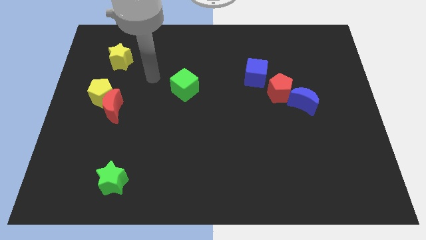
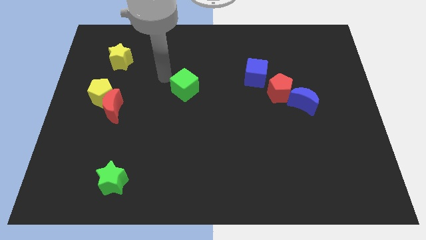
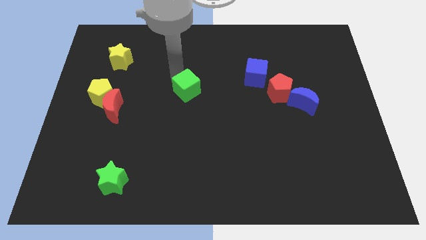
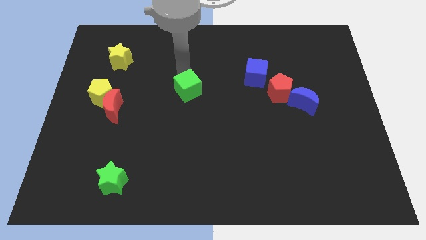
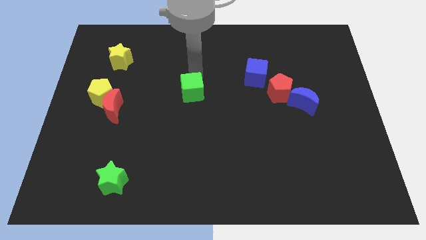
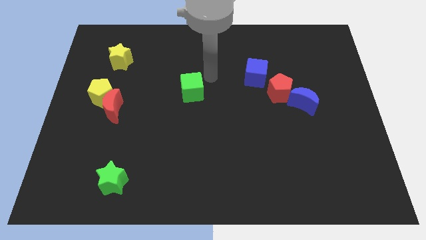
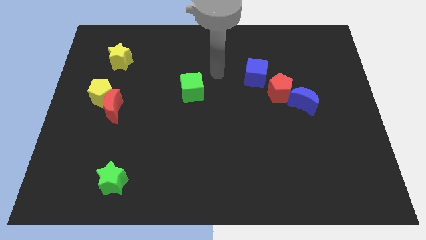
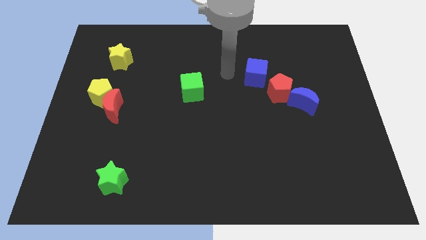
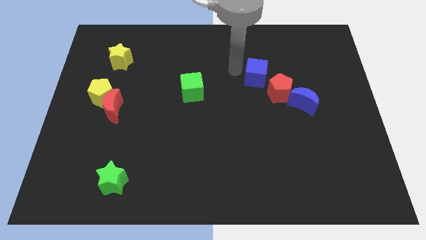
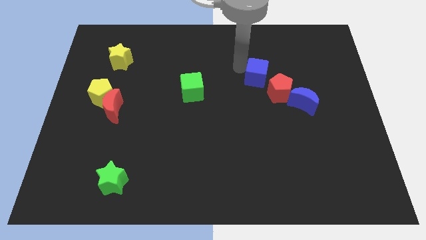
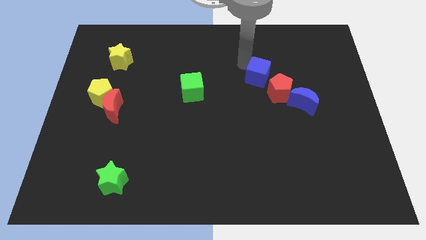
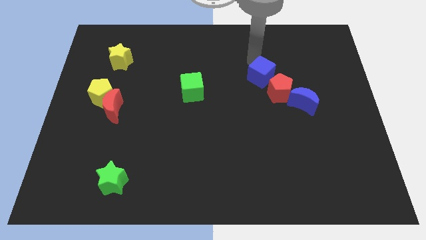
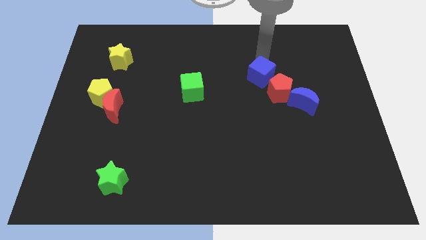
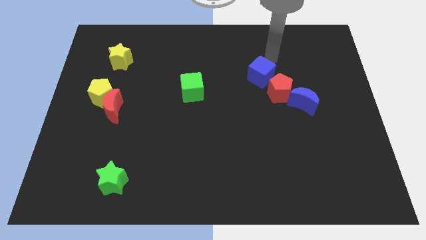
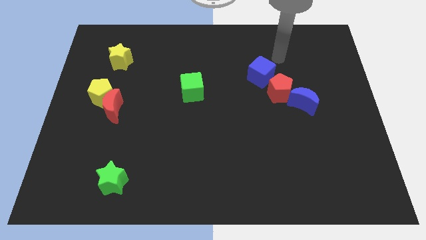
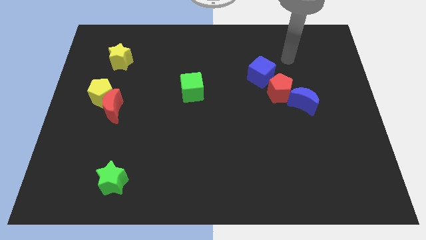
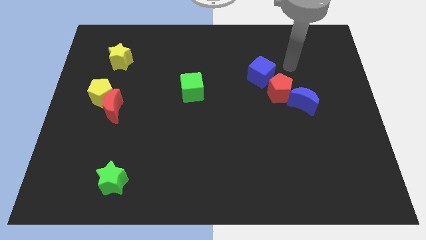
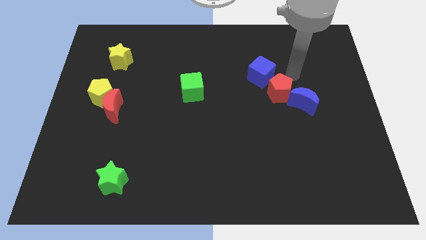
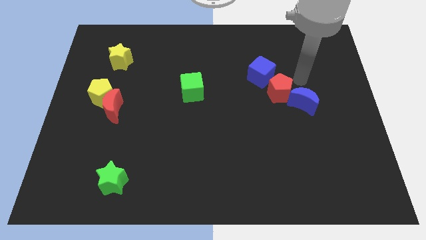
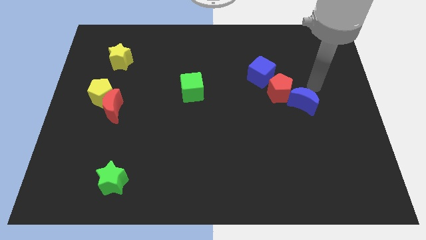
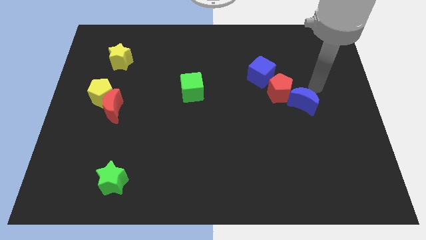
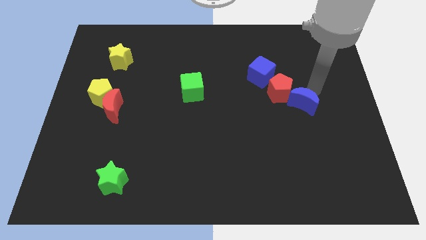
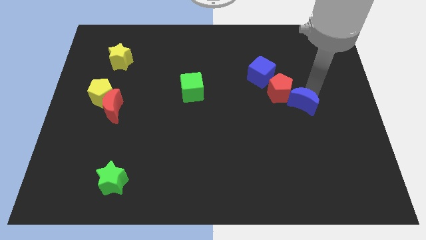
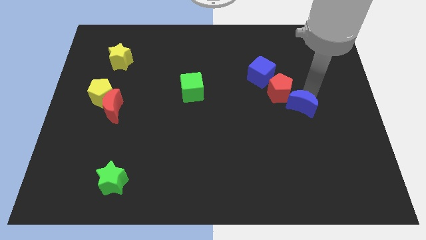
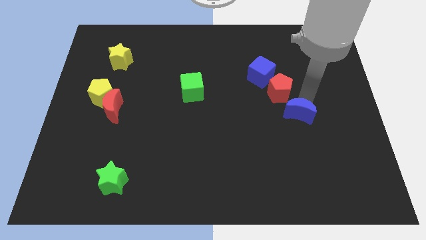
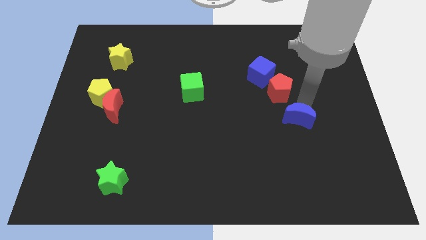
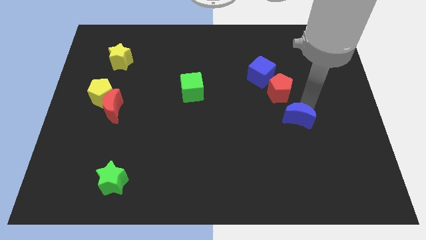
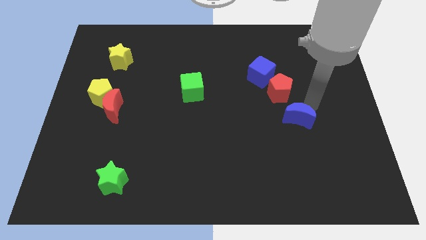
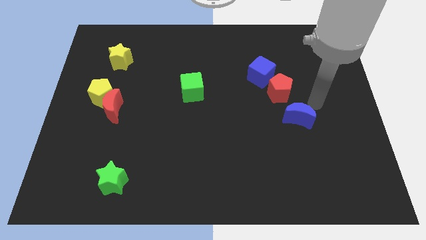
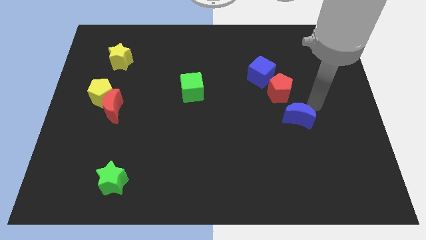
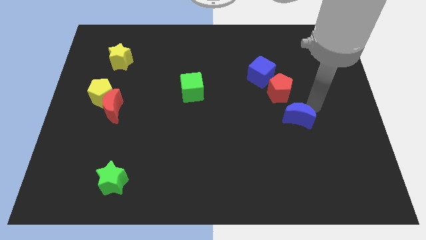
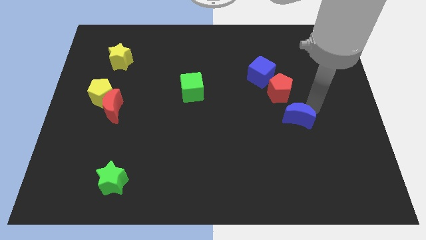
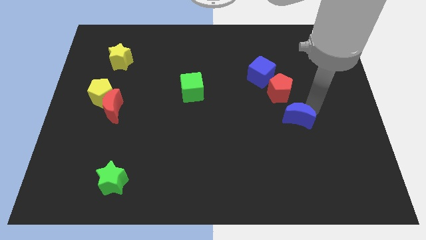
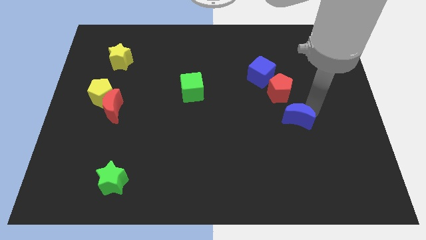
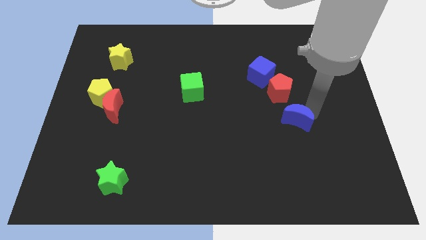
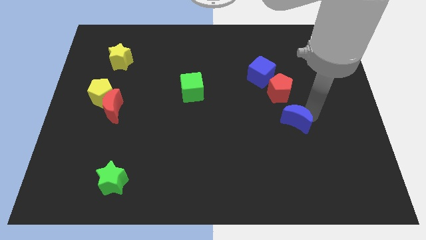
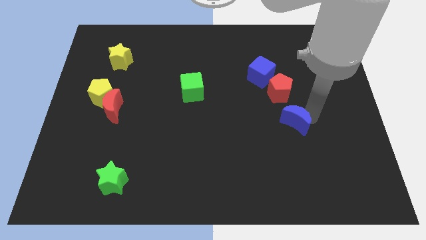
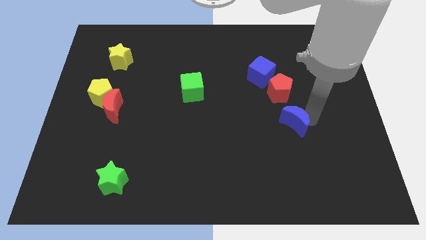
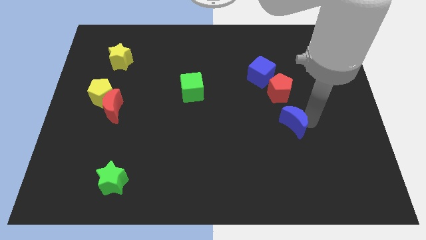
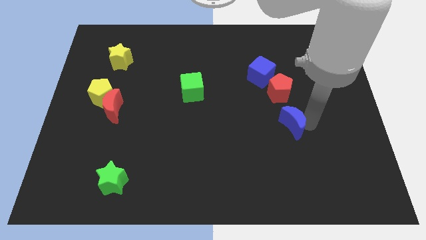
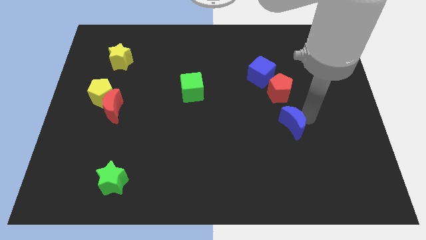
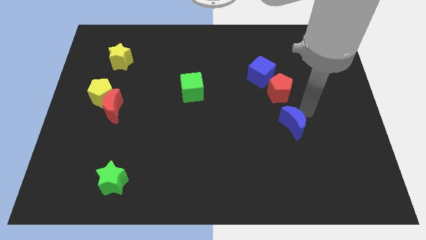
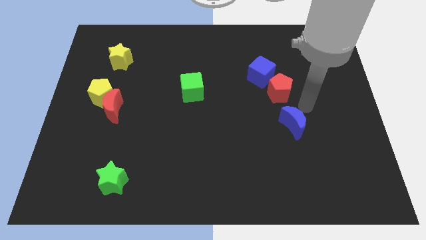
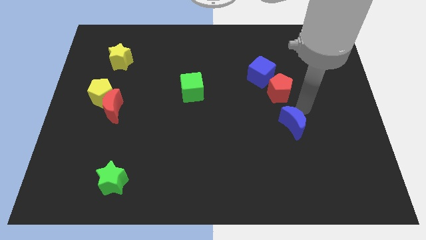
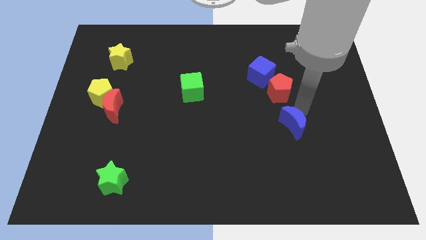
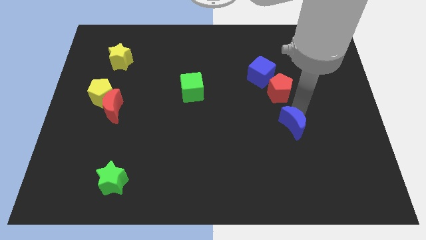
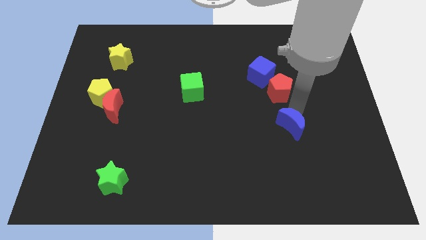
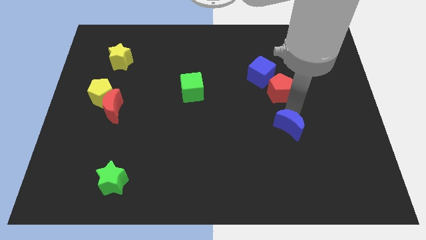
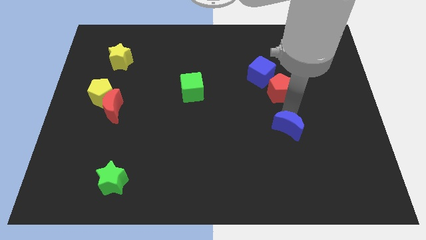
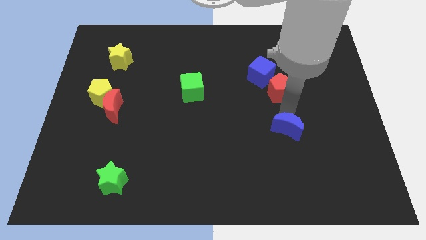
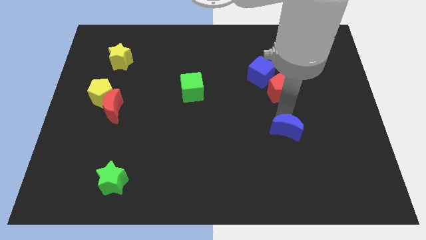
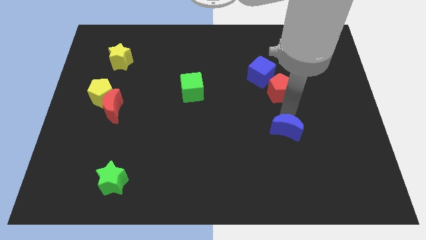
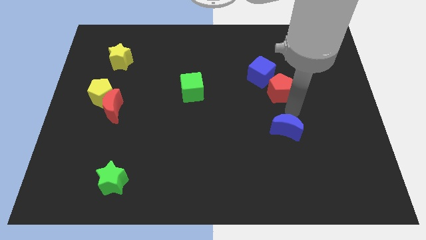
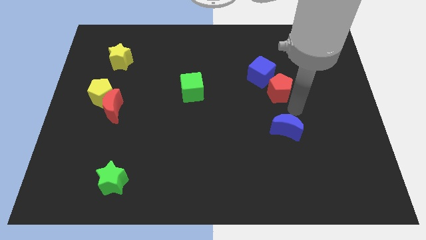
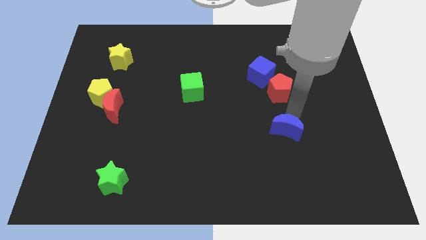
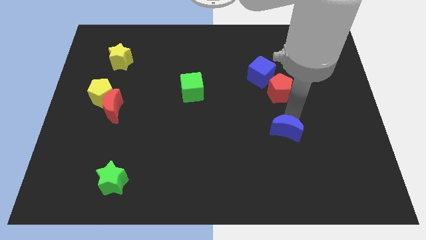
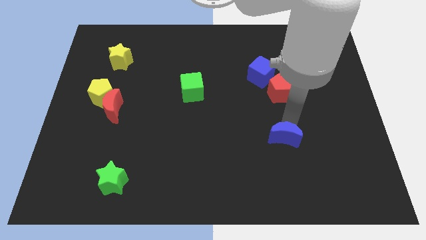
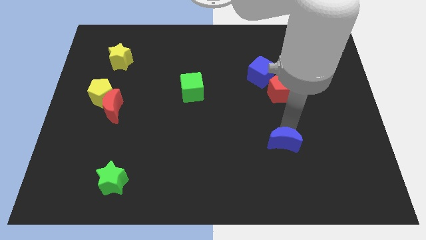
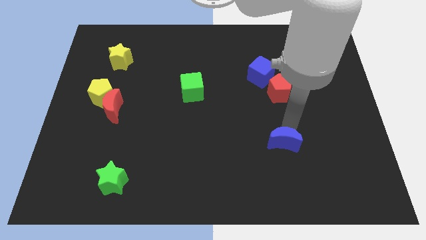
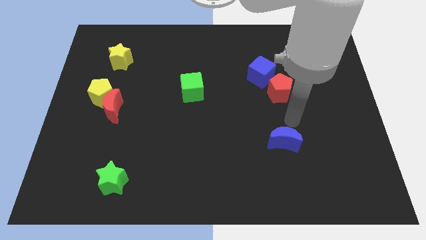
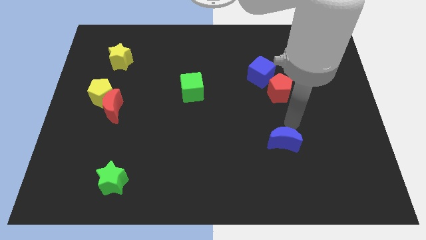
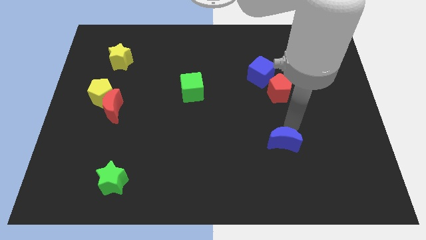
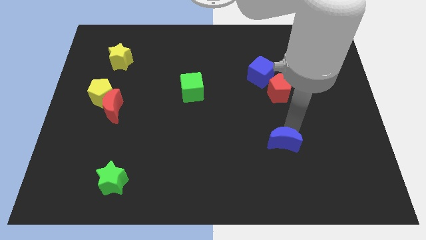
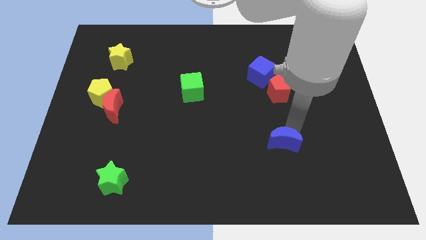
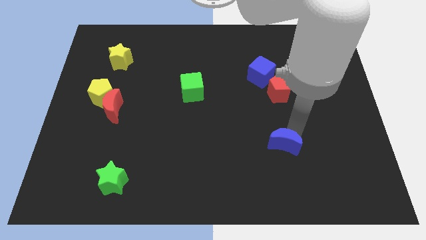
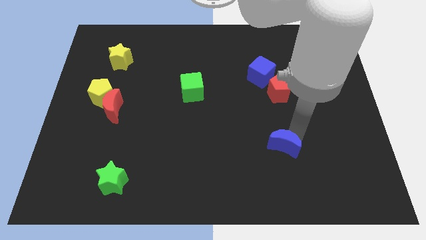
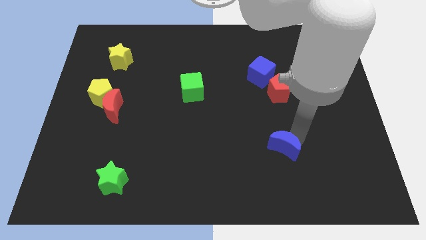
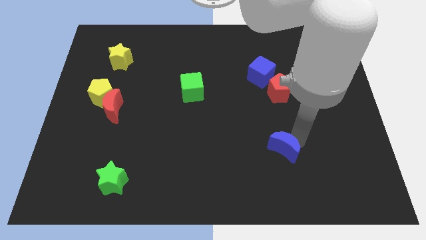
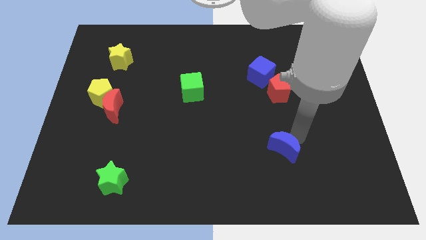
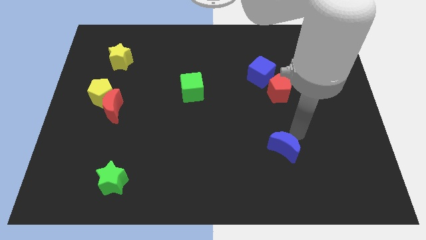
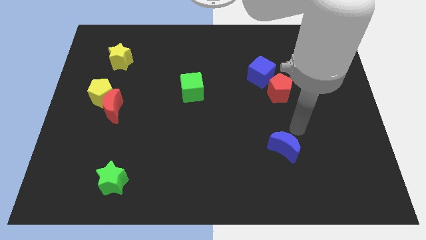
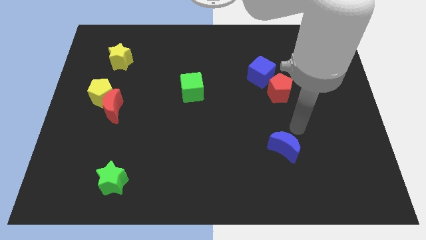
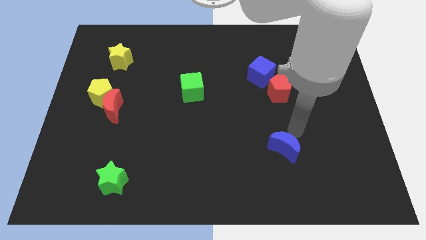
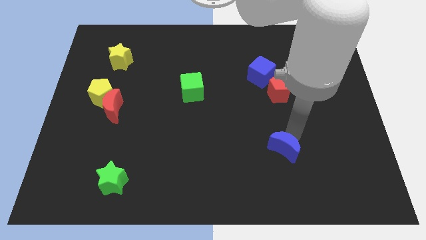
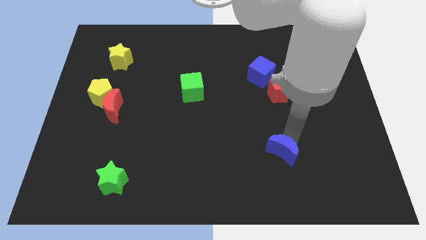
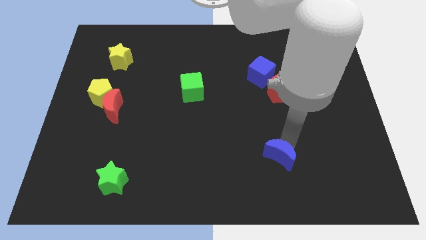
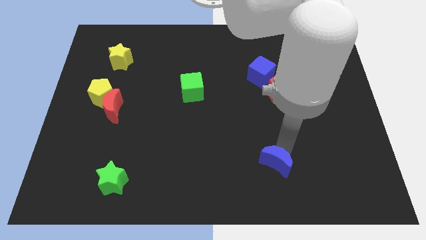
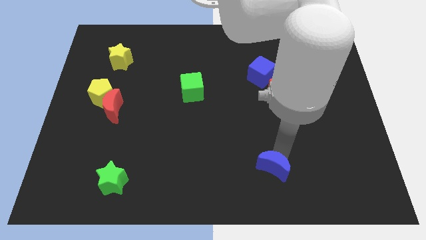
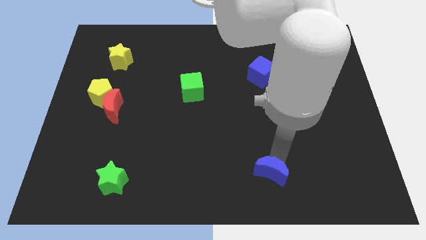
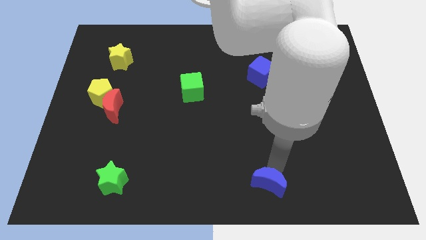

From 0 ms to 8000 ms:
move the blue moon to the bottom
